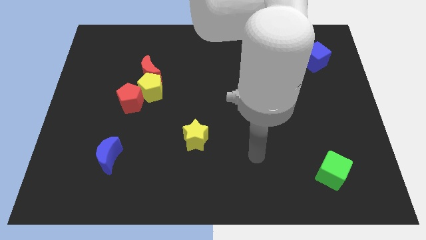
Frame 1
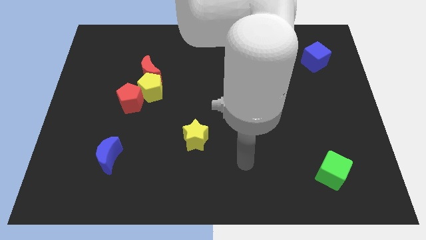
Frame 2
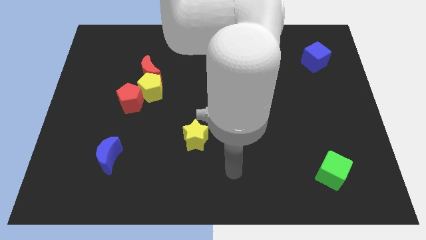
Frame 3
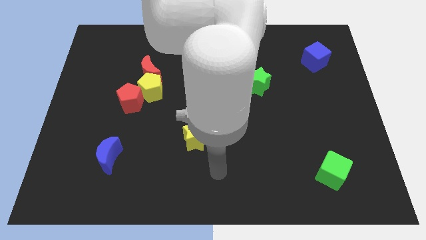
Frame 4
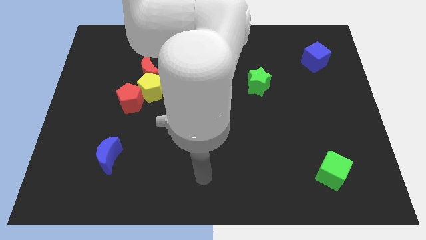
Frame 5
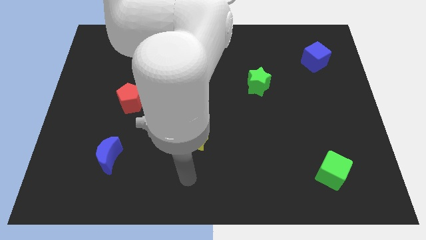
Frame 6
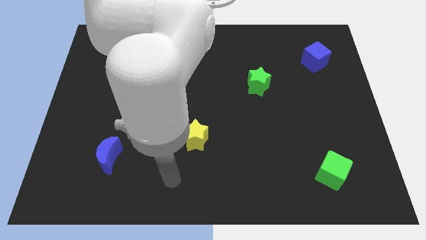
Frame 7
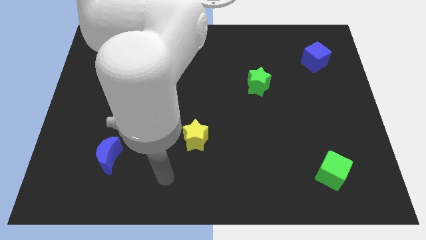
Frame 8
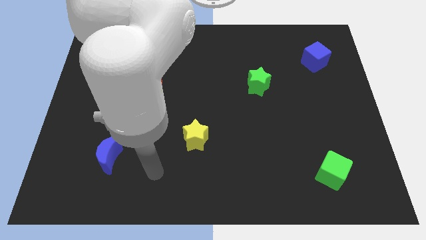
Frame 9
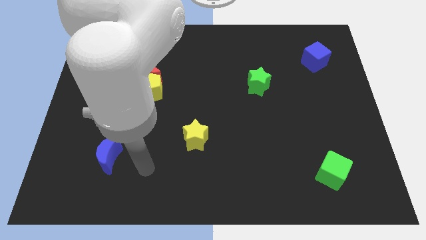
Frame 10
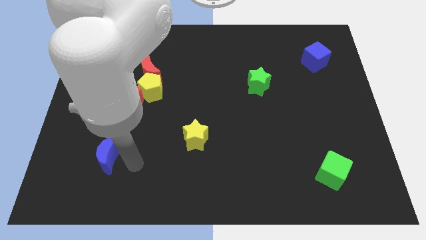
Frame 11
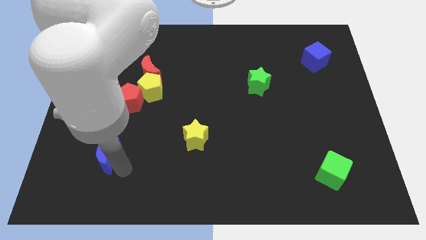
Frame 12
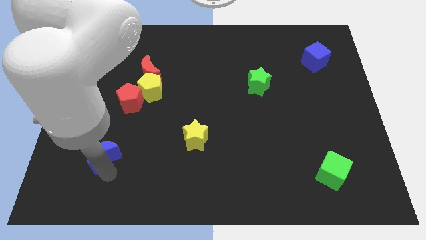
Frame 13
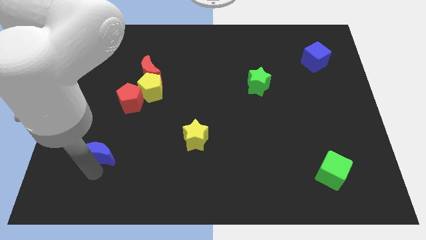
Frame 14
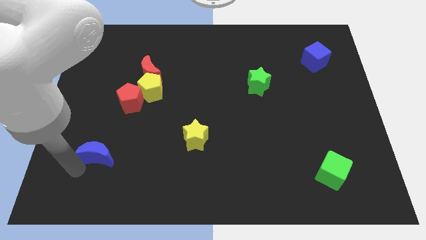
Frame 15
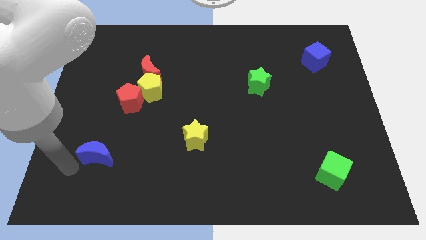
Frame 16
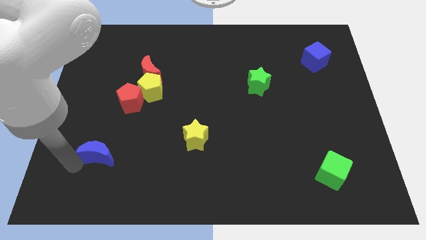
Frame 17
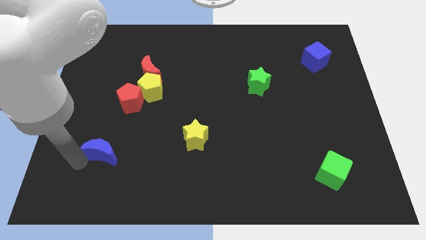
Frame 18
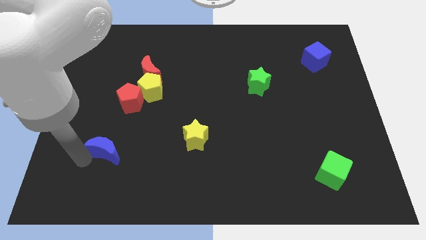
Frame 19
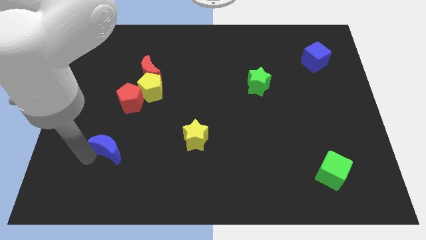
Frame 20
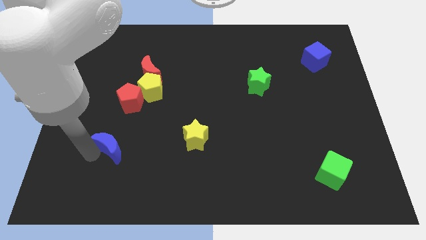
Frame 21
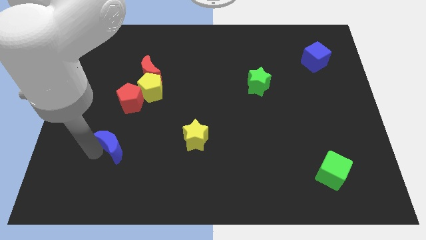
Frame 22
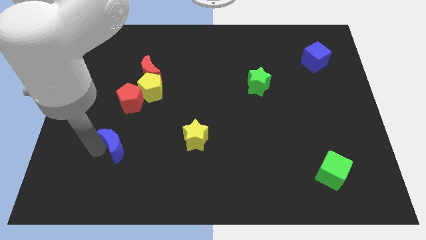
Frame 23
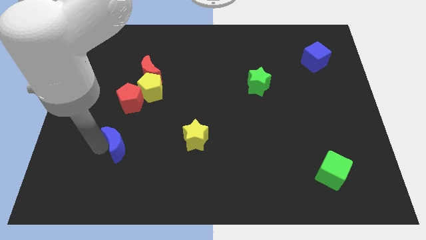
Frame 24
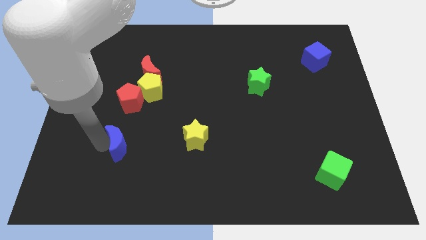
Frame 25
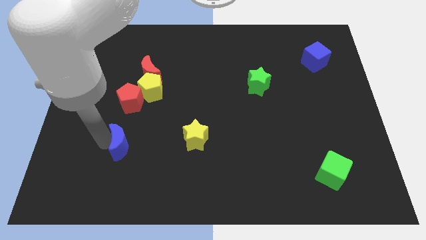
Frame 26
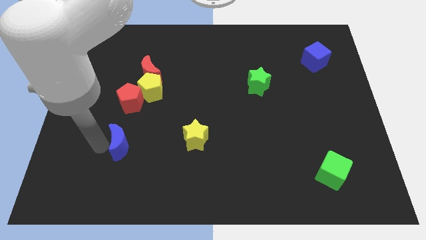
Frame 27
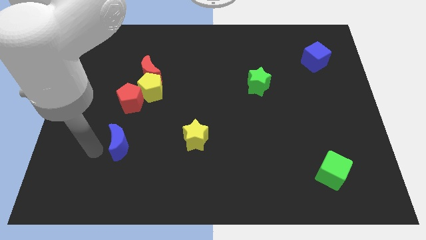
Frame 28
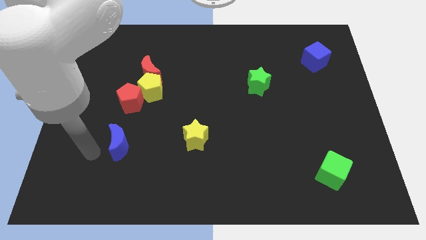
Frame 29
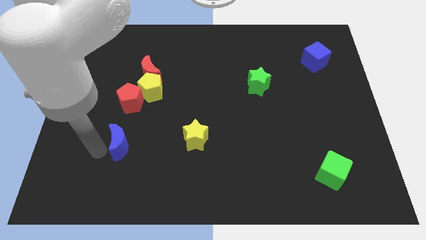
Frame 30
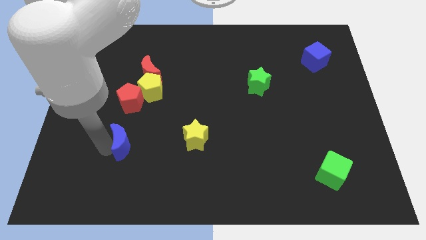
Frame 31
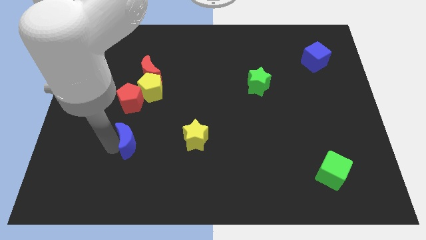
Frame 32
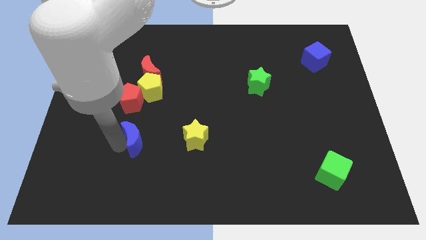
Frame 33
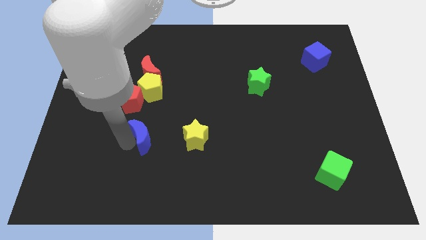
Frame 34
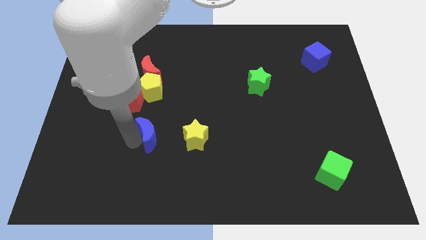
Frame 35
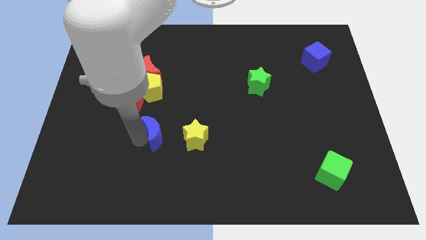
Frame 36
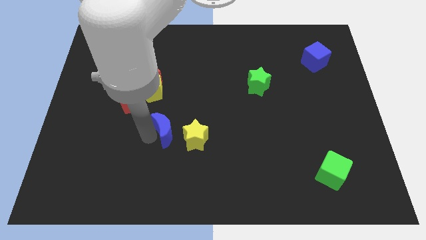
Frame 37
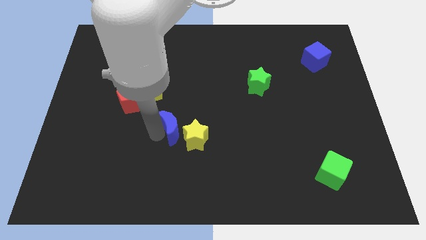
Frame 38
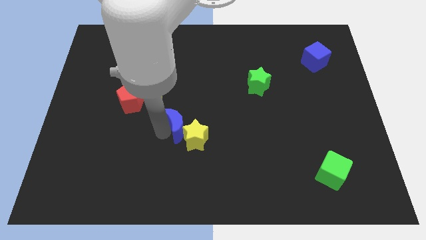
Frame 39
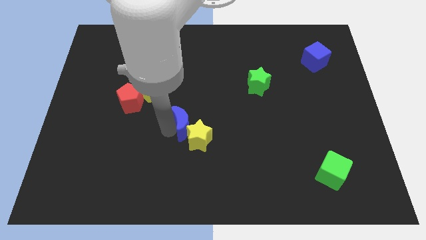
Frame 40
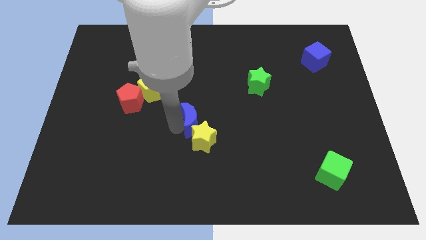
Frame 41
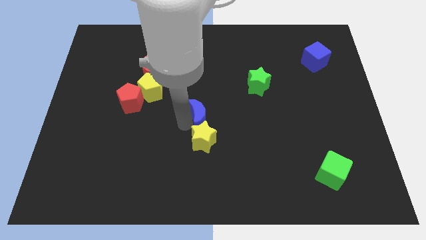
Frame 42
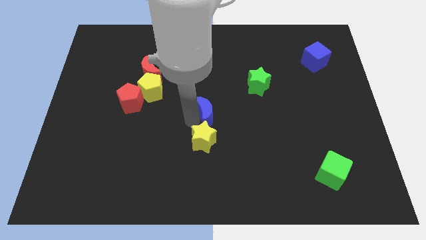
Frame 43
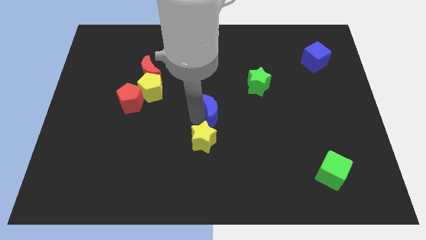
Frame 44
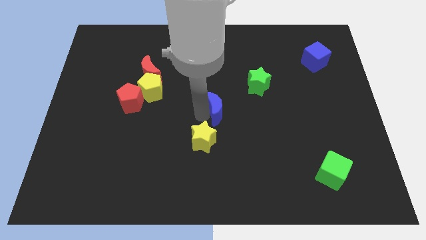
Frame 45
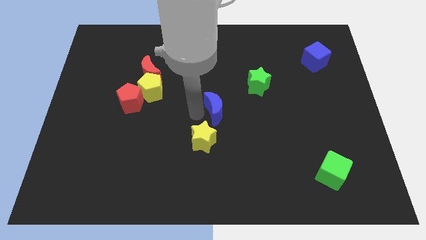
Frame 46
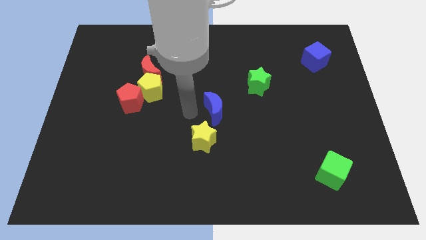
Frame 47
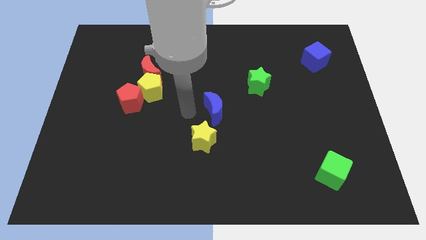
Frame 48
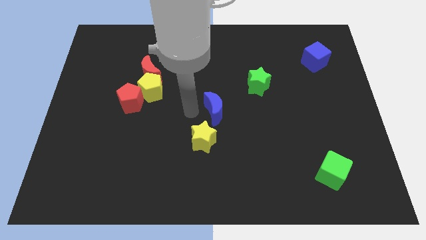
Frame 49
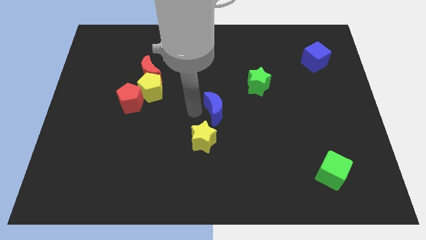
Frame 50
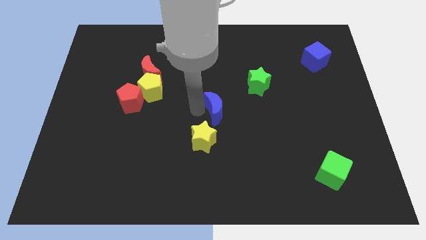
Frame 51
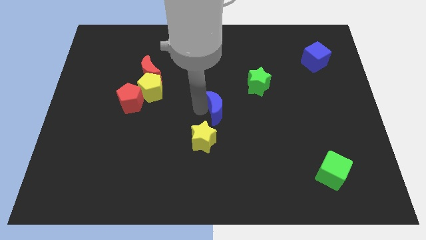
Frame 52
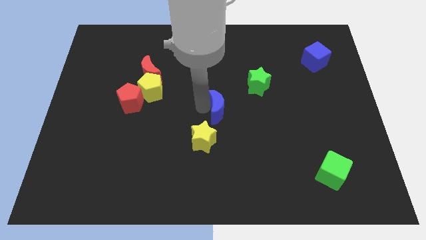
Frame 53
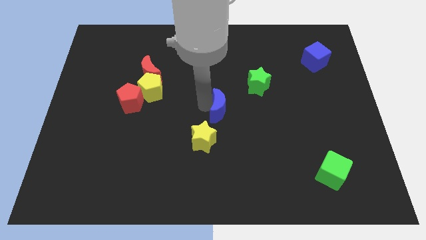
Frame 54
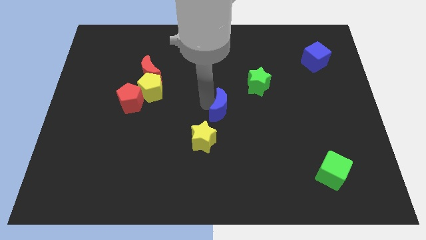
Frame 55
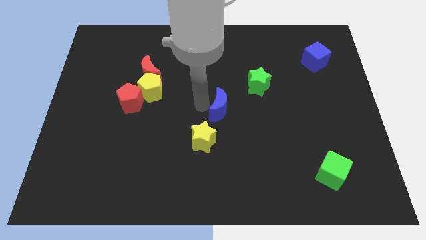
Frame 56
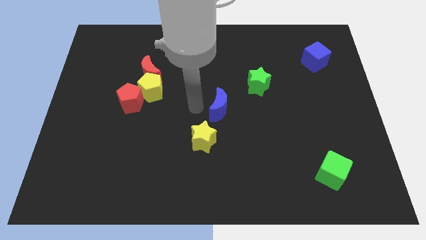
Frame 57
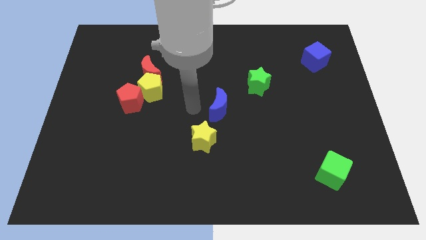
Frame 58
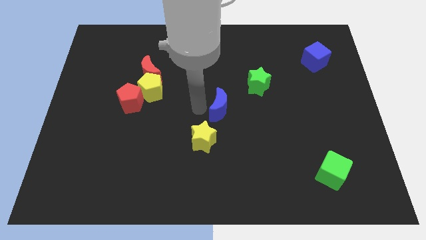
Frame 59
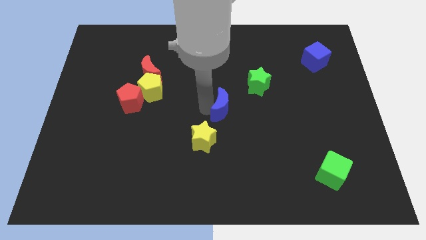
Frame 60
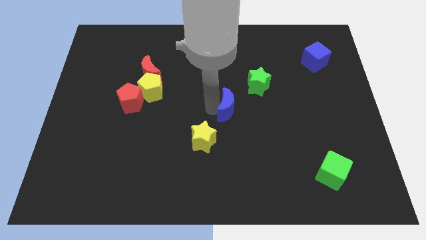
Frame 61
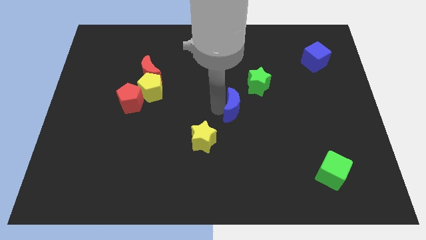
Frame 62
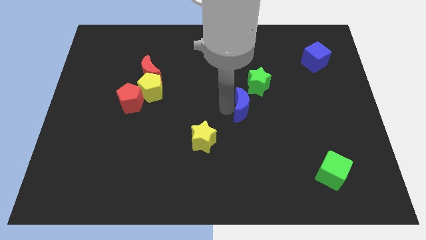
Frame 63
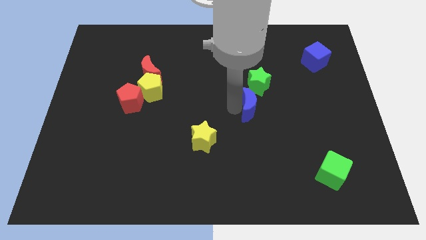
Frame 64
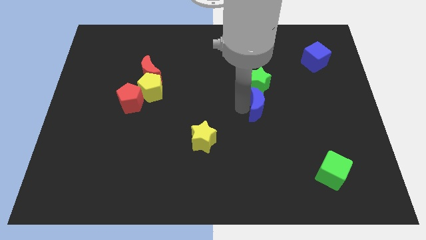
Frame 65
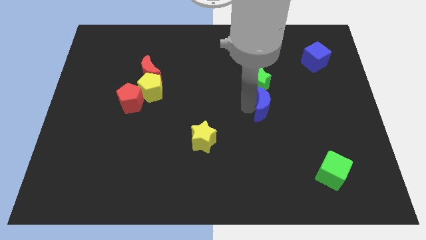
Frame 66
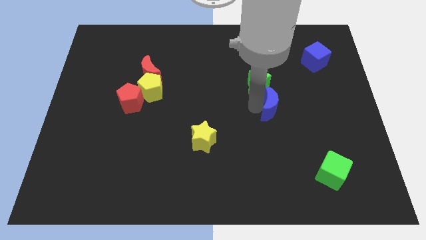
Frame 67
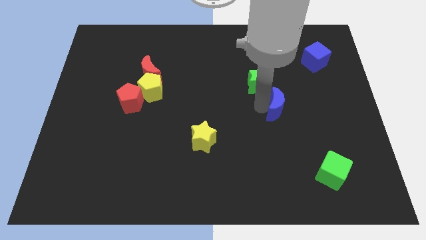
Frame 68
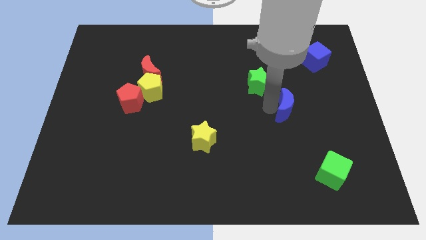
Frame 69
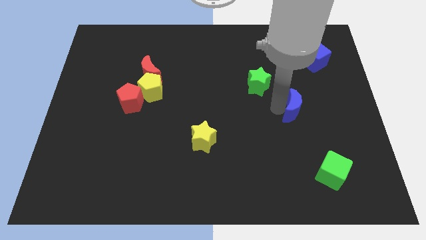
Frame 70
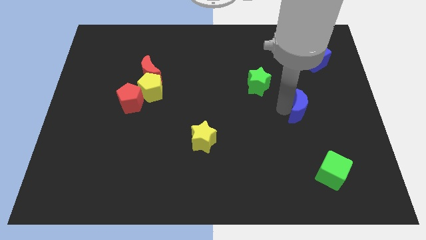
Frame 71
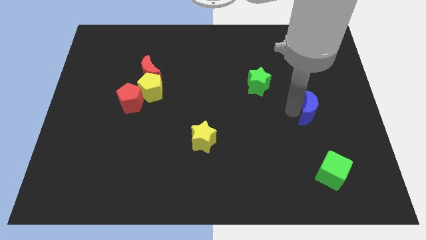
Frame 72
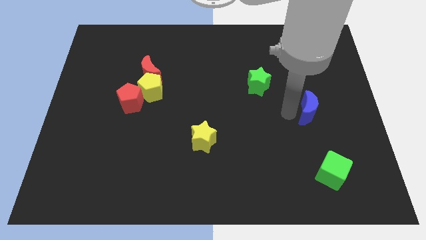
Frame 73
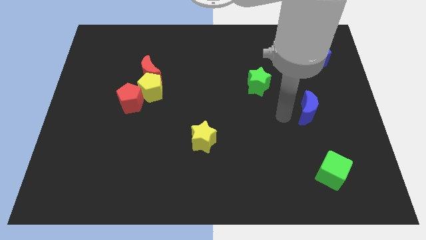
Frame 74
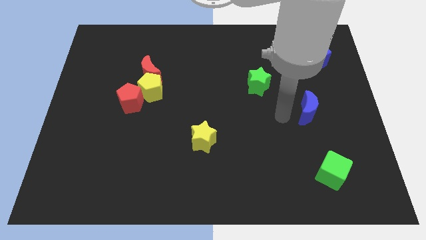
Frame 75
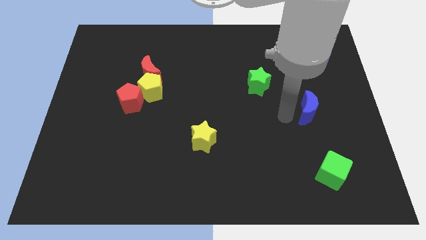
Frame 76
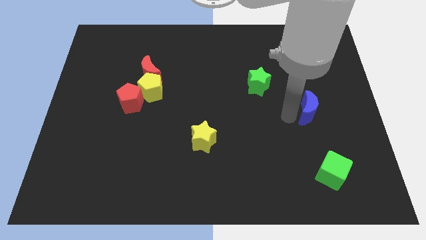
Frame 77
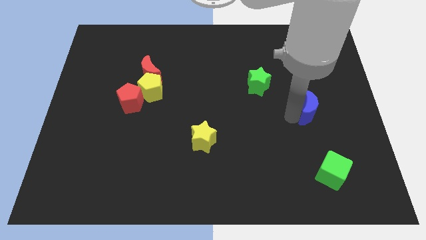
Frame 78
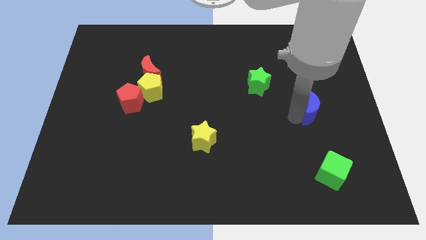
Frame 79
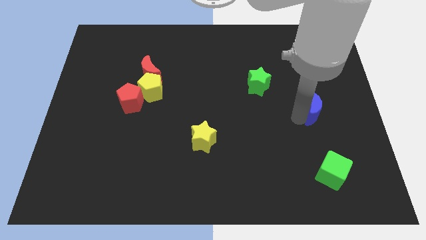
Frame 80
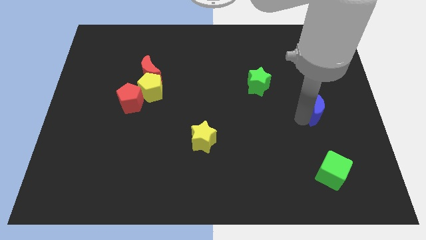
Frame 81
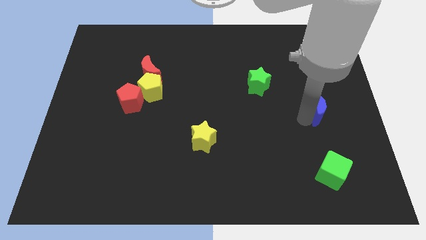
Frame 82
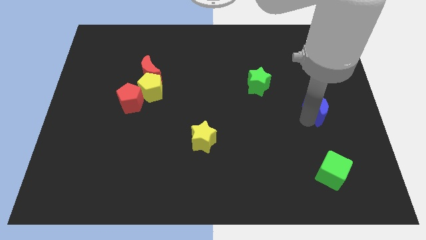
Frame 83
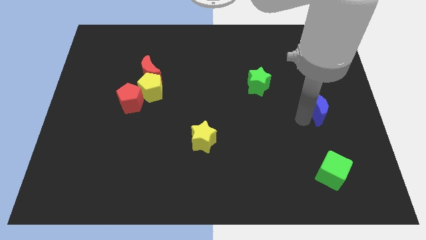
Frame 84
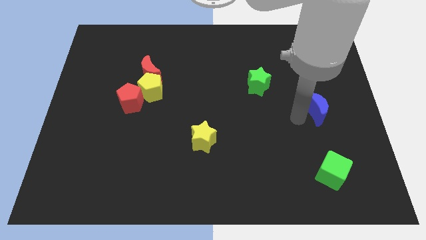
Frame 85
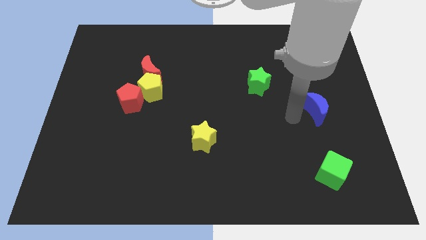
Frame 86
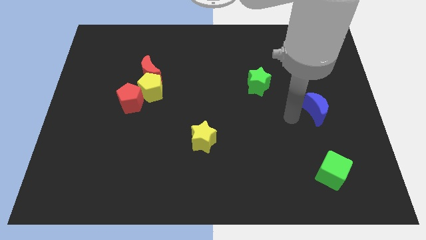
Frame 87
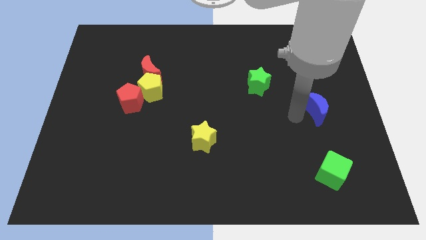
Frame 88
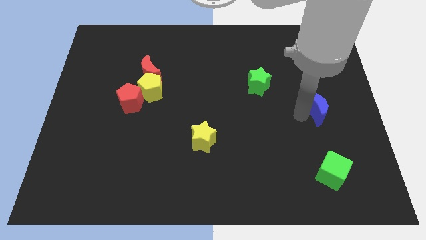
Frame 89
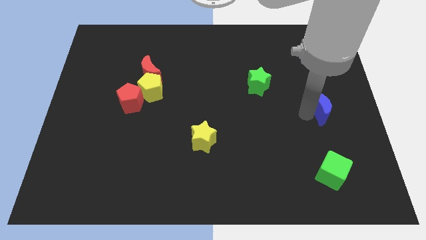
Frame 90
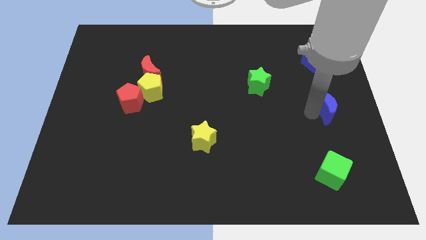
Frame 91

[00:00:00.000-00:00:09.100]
push the blue moon to the center right
